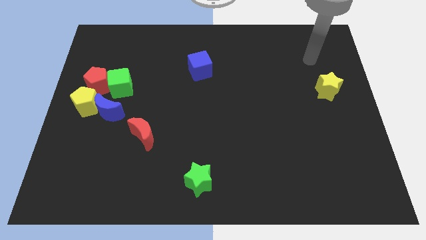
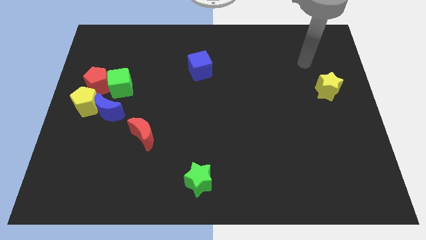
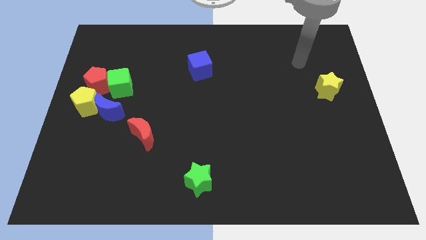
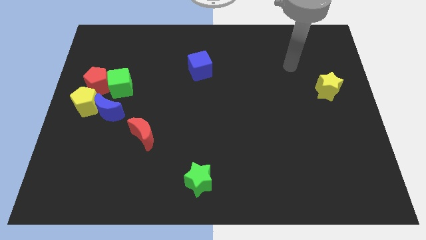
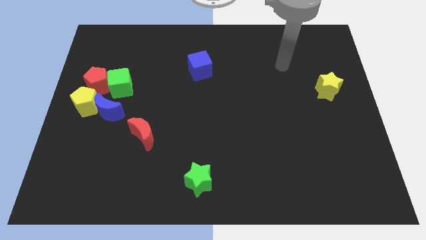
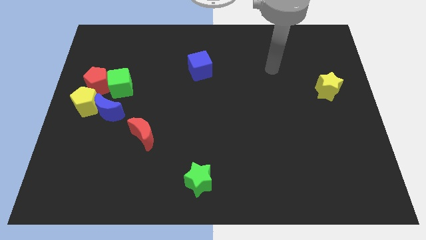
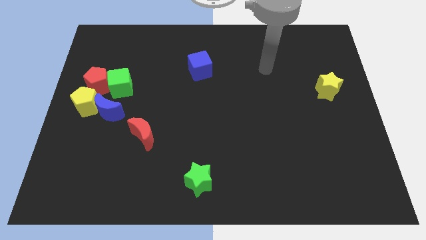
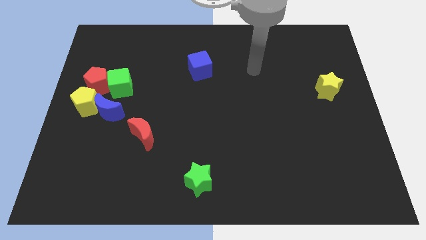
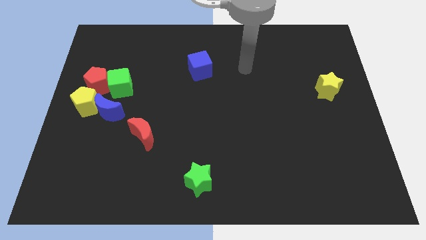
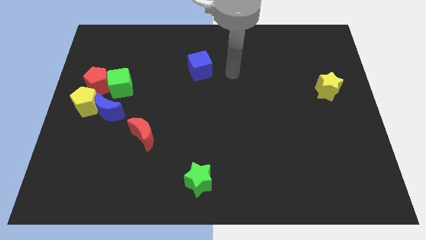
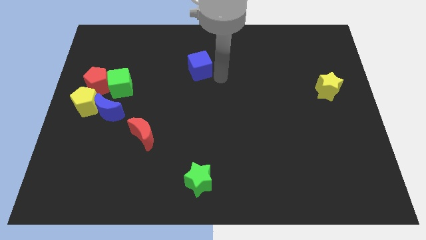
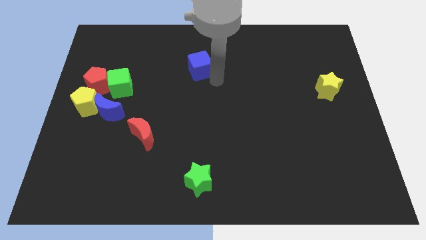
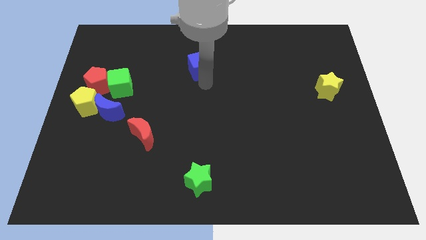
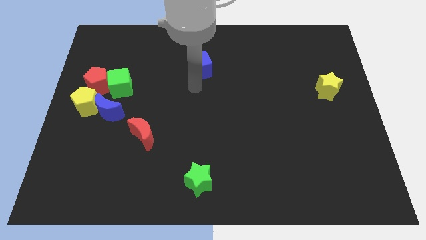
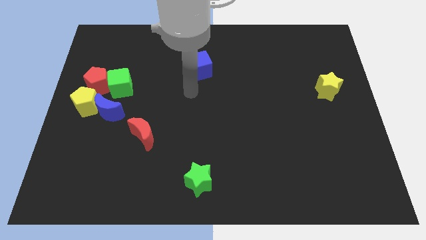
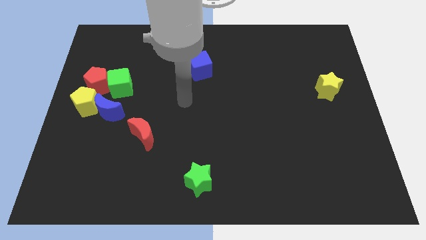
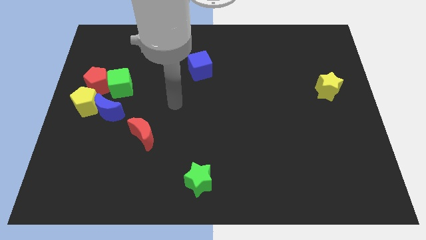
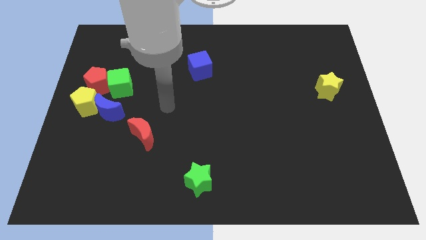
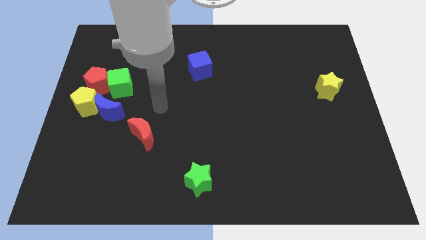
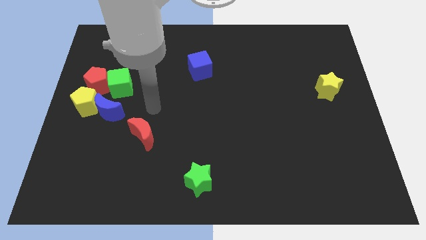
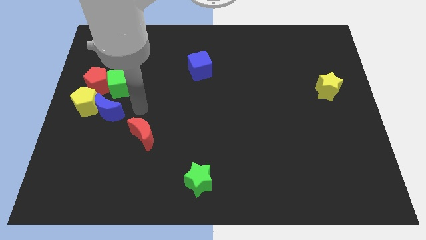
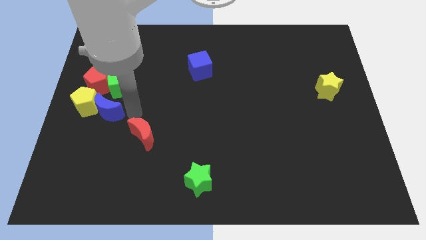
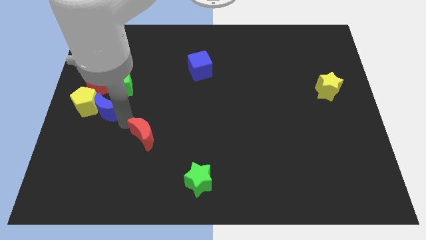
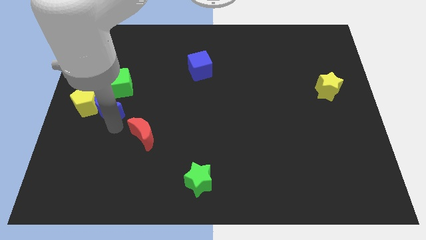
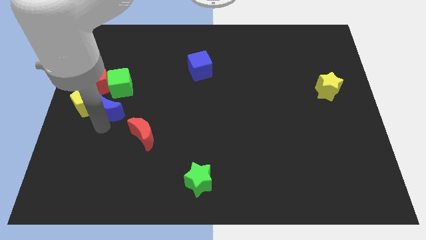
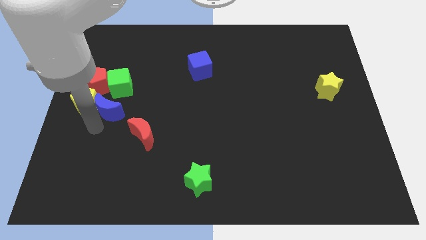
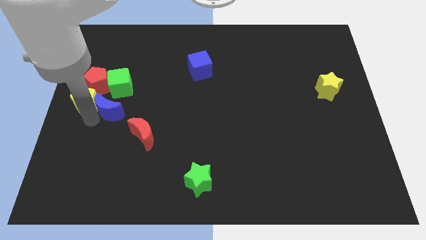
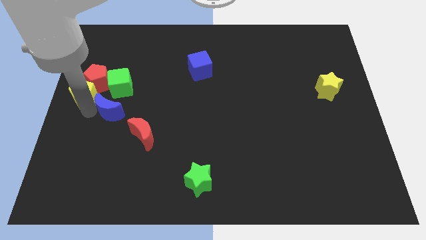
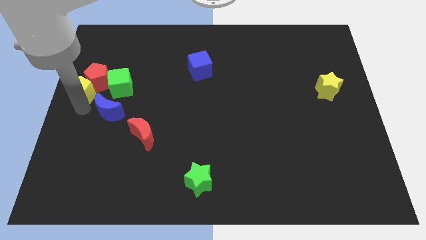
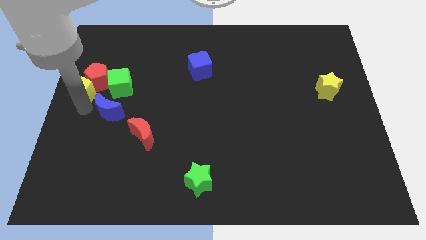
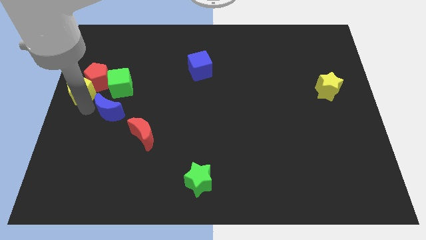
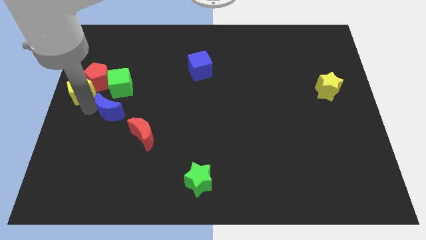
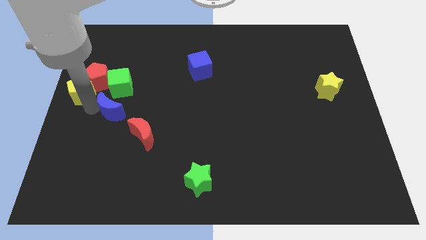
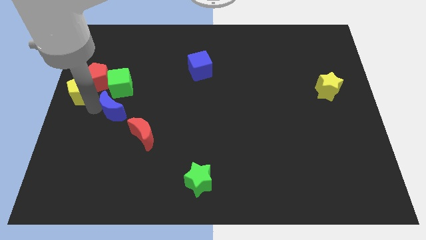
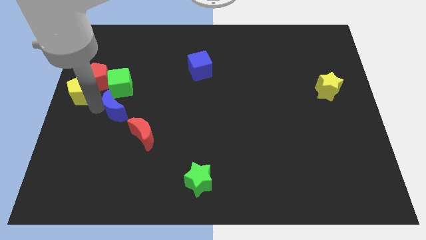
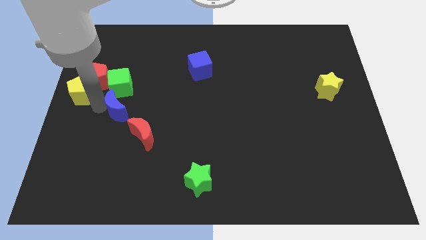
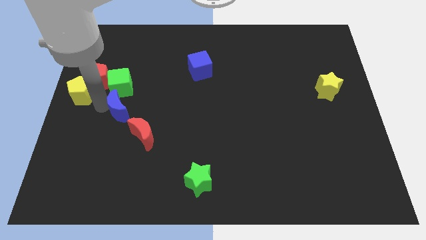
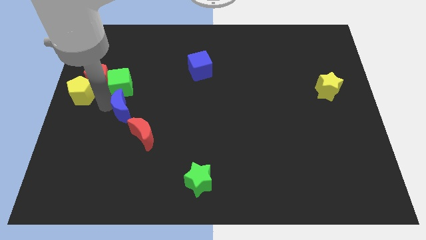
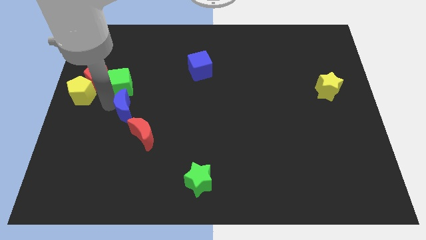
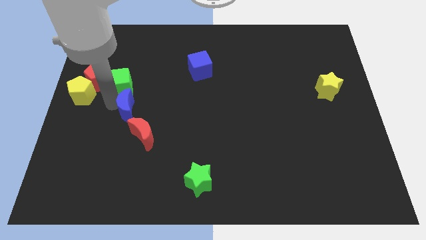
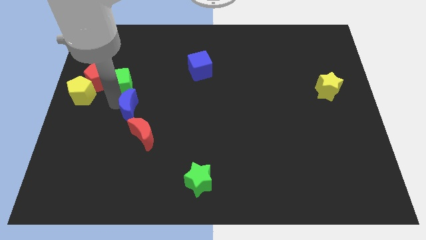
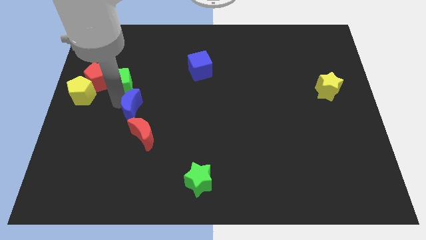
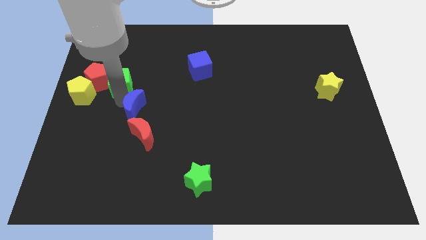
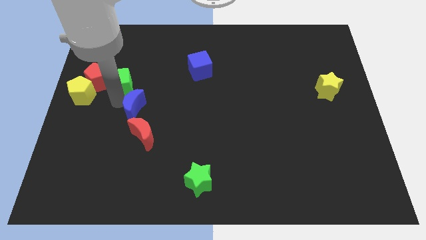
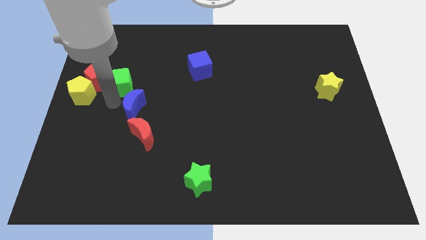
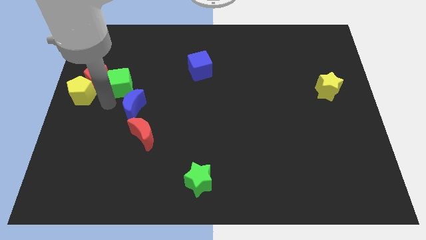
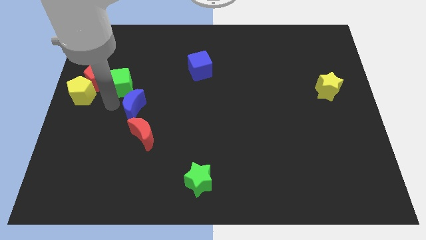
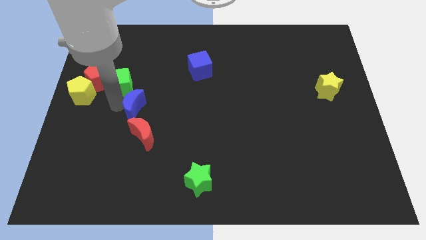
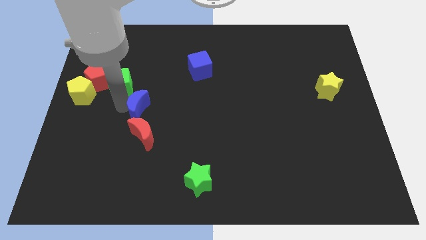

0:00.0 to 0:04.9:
push the blue moon to the right somewhat

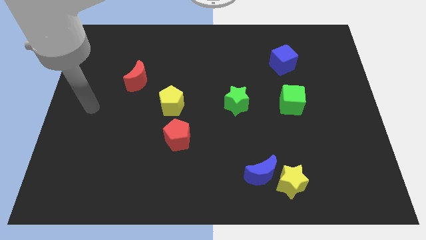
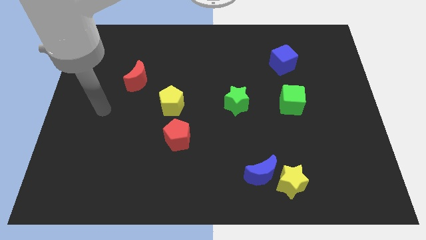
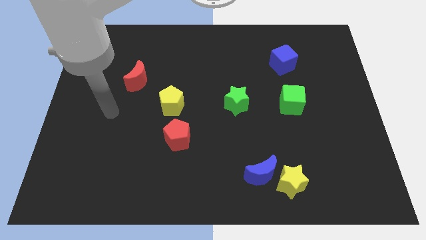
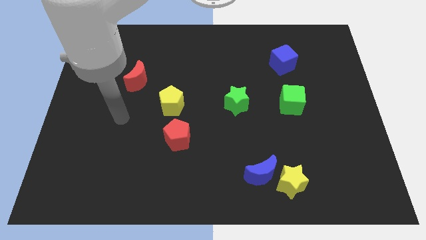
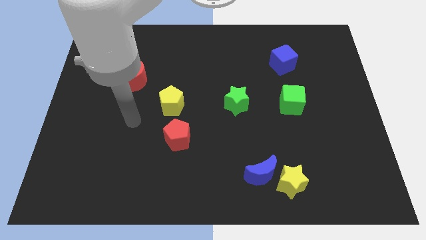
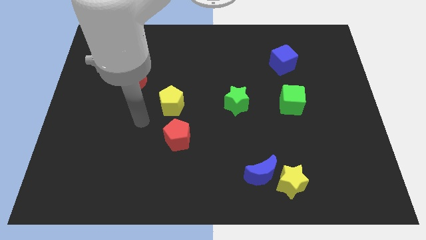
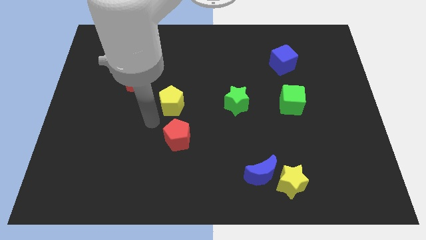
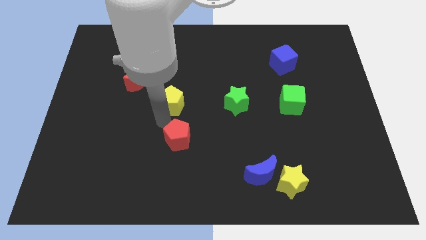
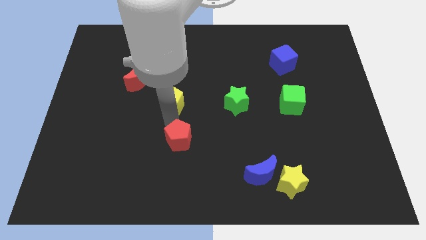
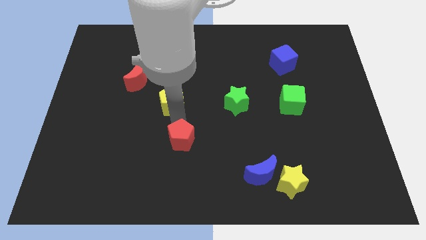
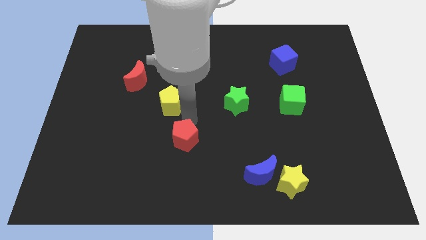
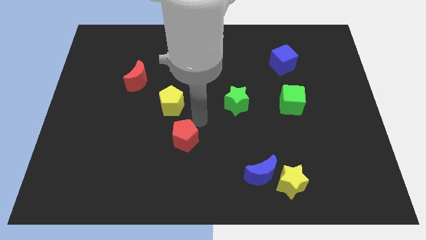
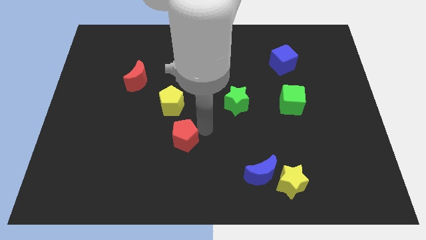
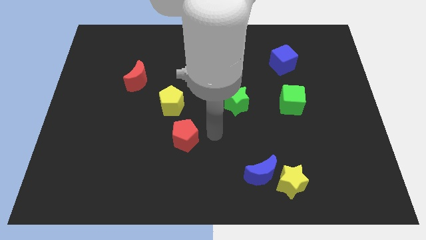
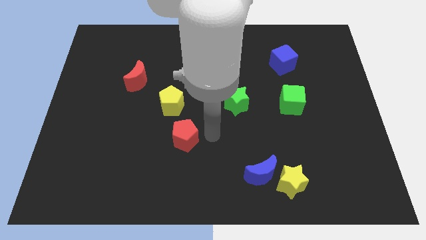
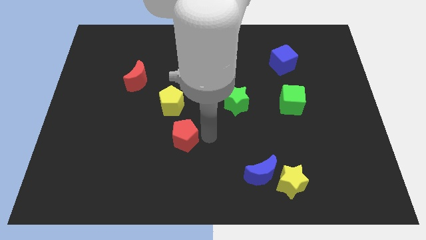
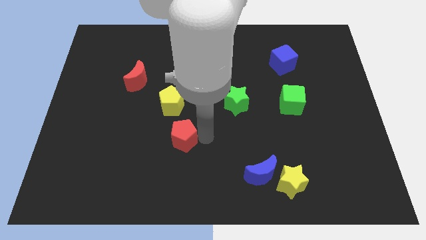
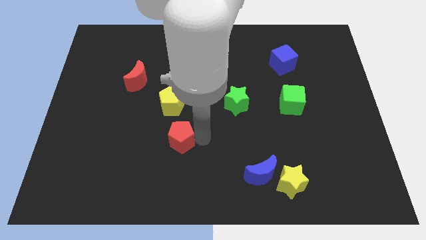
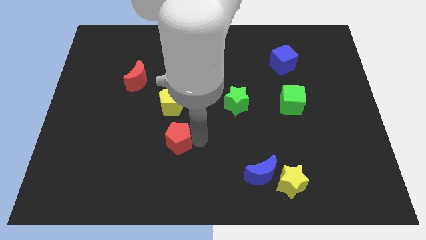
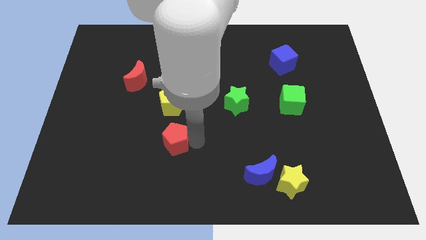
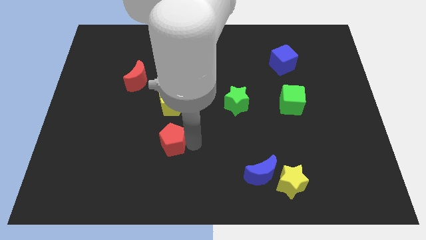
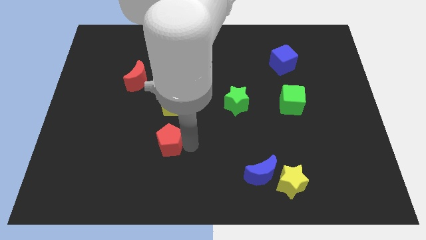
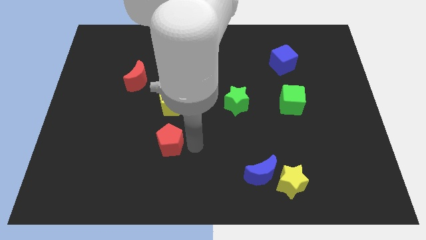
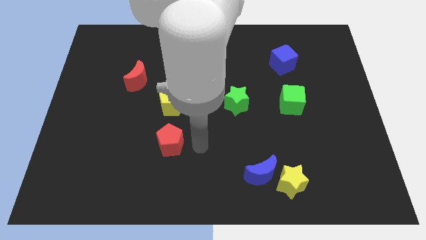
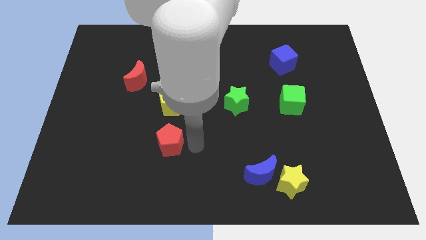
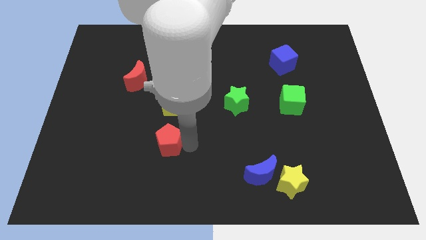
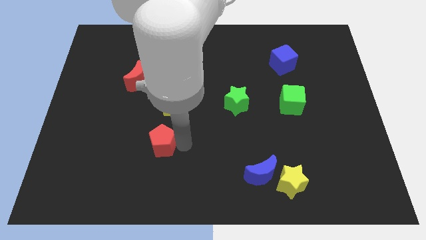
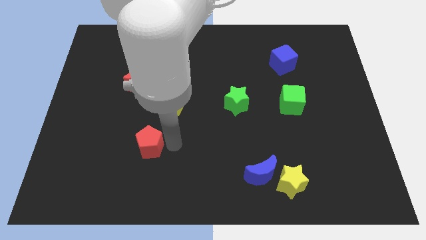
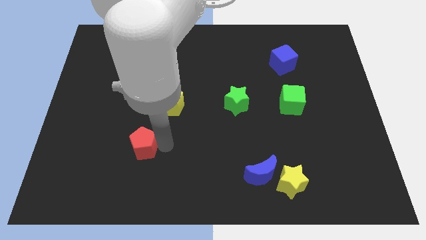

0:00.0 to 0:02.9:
push the red pentagon somewhat to the left
